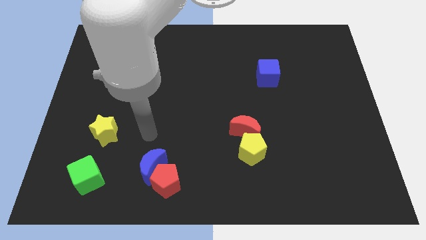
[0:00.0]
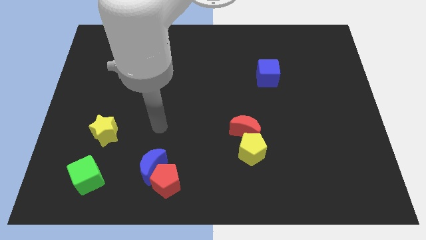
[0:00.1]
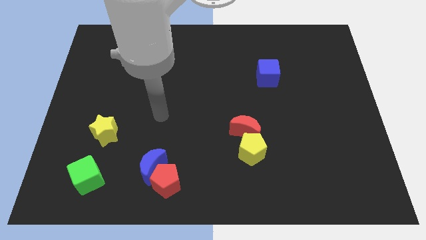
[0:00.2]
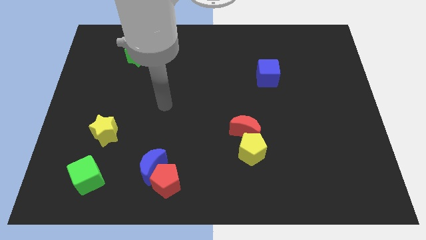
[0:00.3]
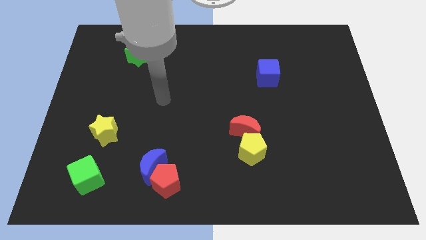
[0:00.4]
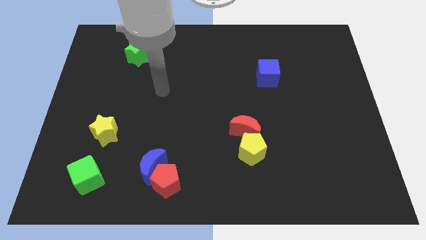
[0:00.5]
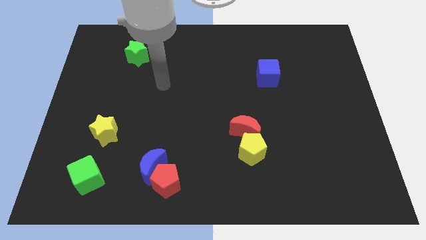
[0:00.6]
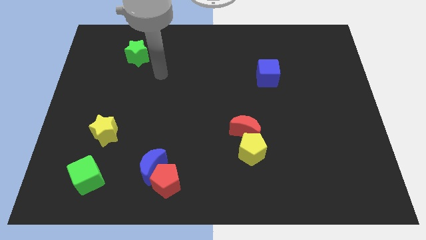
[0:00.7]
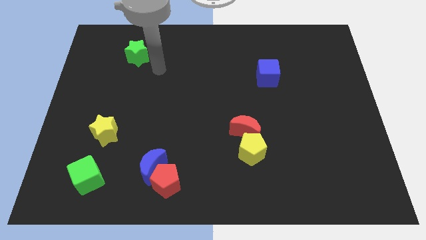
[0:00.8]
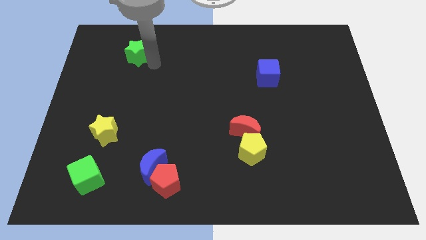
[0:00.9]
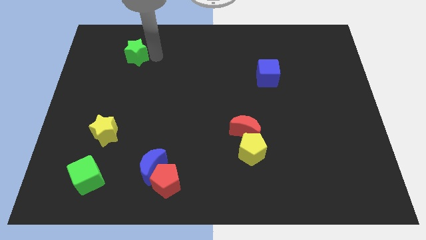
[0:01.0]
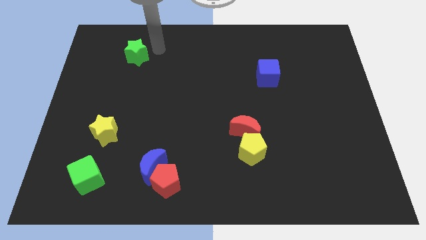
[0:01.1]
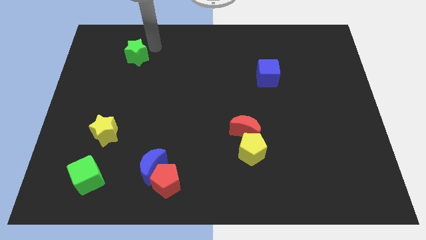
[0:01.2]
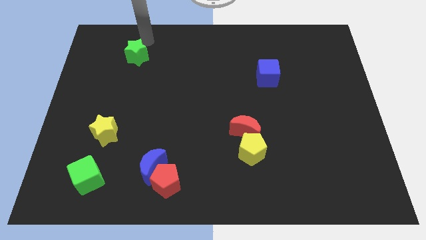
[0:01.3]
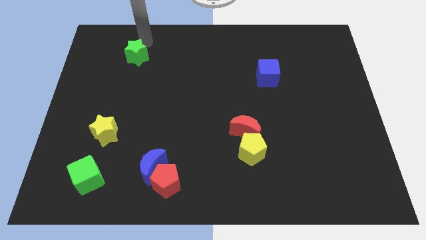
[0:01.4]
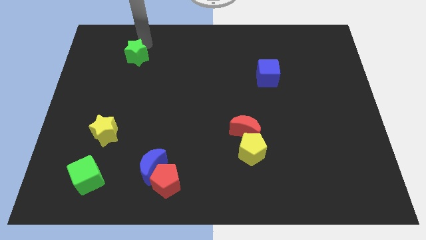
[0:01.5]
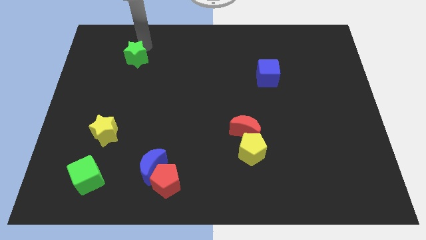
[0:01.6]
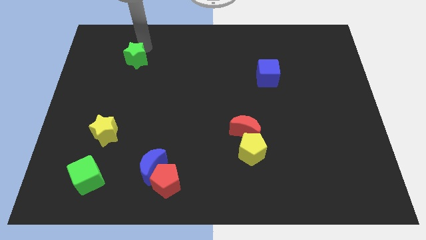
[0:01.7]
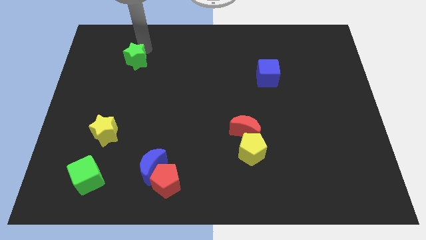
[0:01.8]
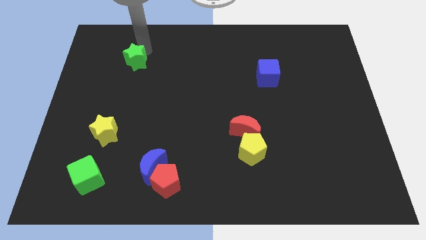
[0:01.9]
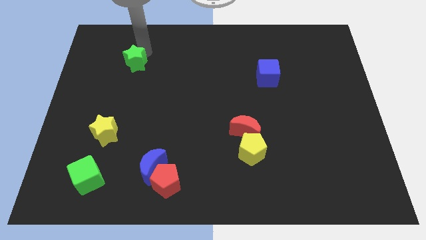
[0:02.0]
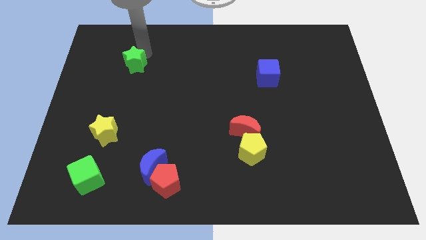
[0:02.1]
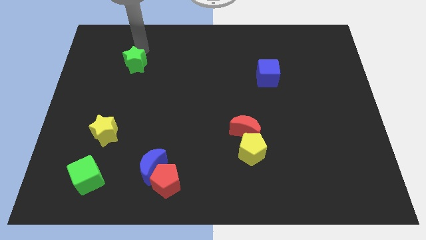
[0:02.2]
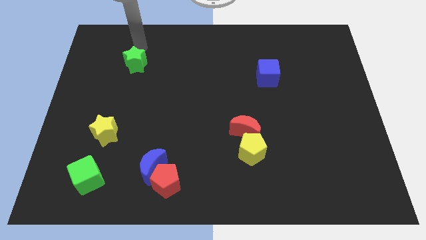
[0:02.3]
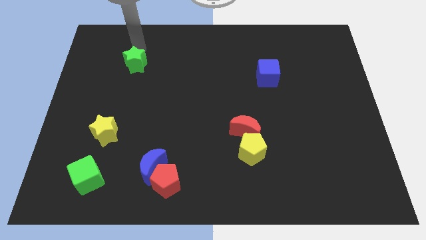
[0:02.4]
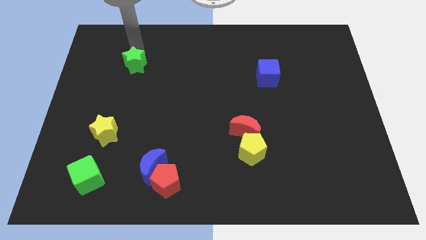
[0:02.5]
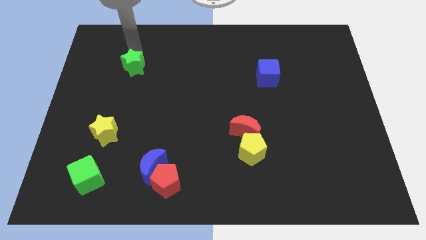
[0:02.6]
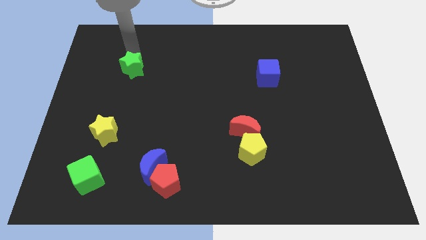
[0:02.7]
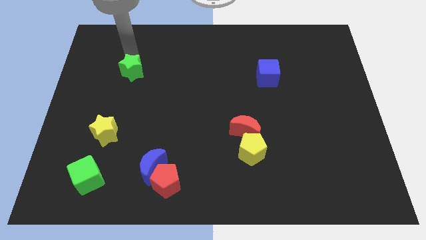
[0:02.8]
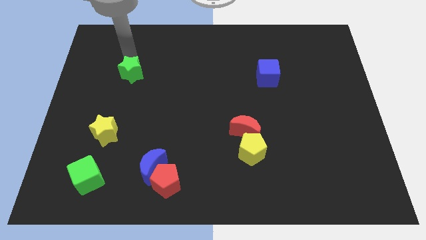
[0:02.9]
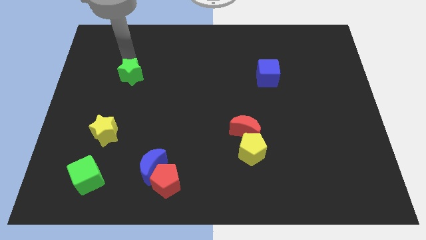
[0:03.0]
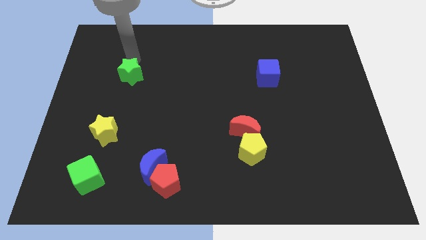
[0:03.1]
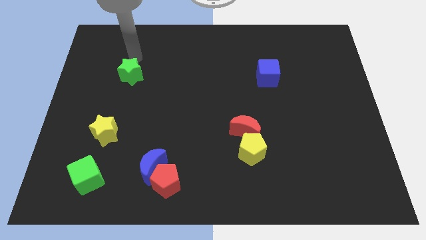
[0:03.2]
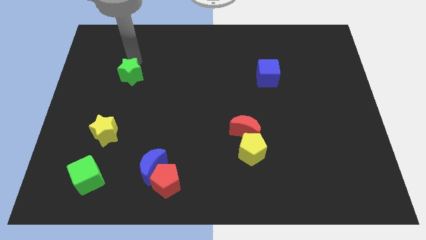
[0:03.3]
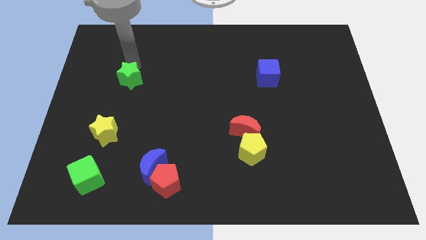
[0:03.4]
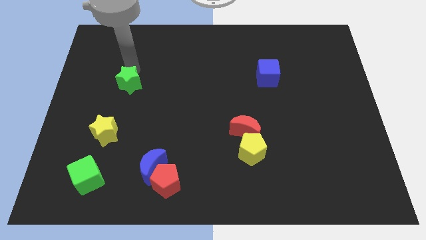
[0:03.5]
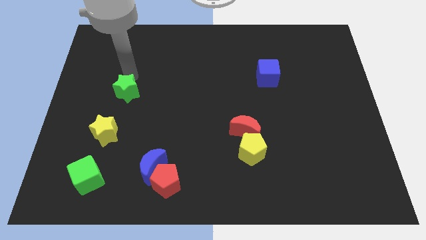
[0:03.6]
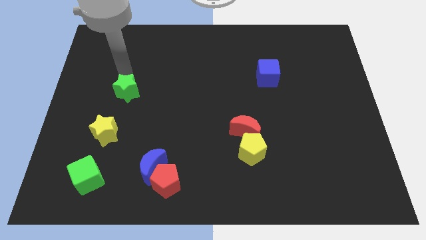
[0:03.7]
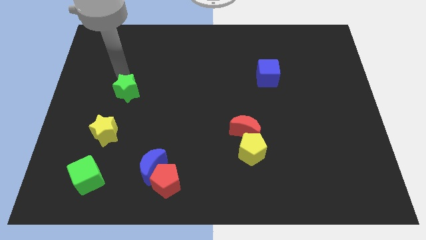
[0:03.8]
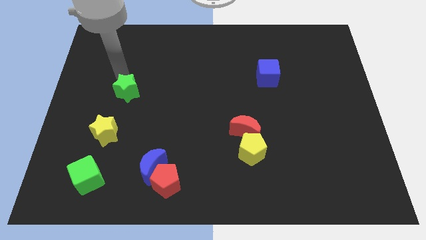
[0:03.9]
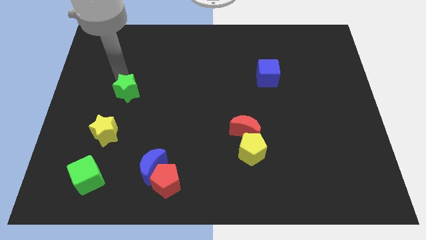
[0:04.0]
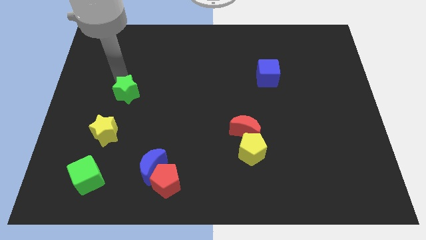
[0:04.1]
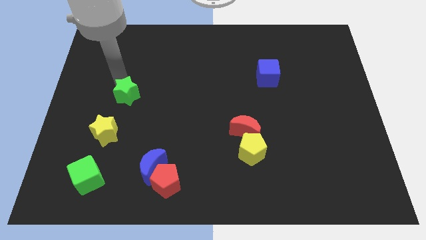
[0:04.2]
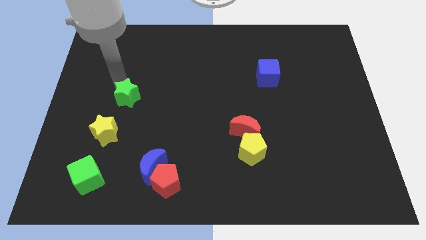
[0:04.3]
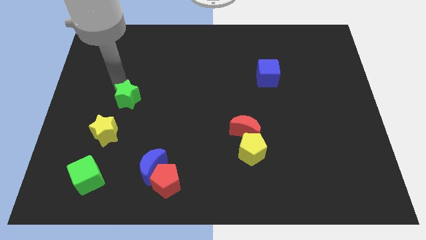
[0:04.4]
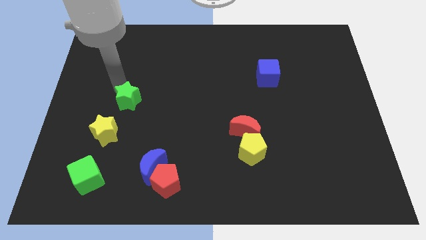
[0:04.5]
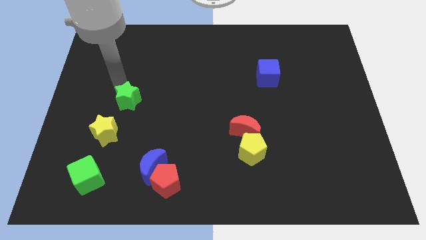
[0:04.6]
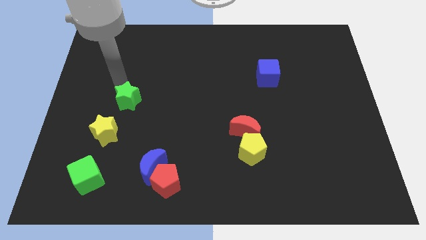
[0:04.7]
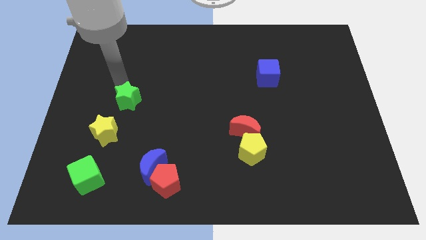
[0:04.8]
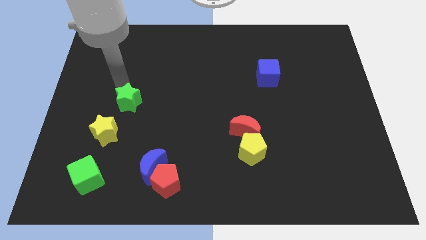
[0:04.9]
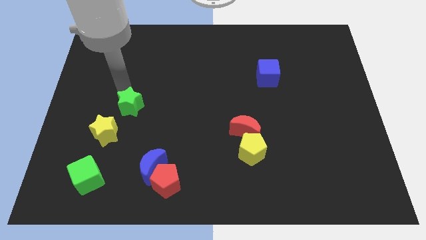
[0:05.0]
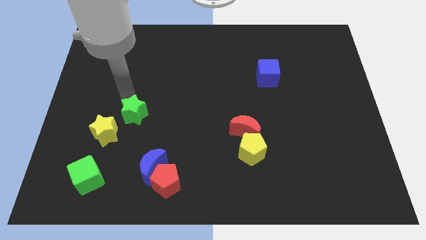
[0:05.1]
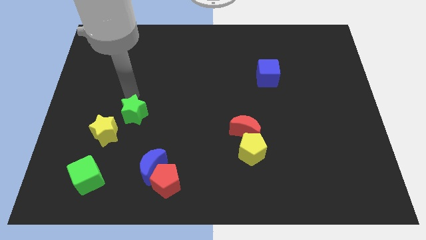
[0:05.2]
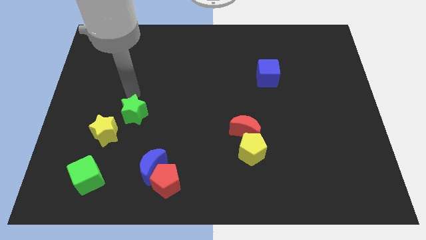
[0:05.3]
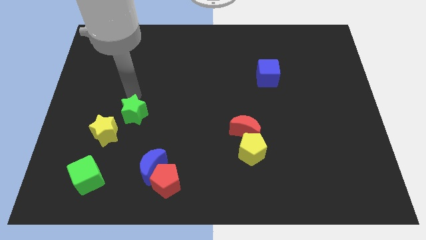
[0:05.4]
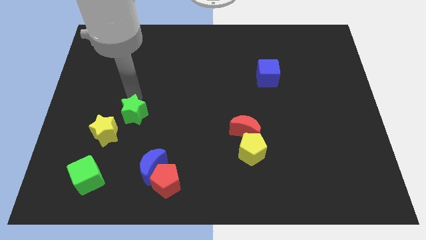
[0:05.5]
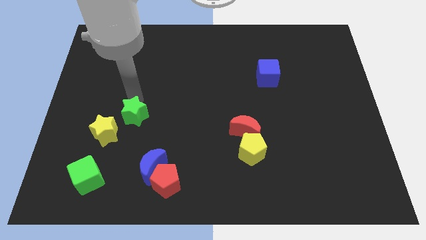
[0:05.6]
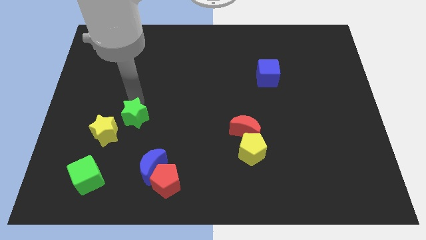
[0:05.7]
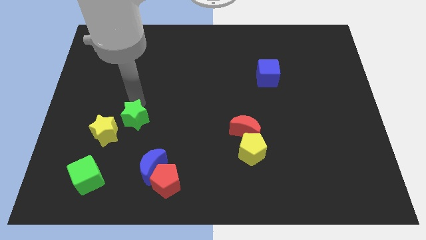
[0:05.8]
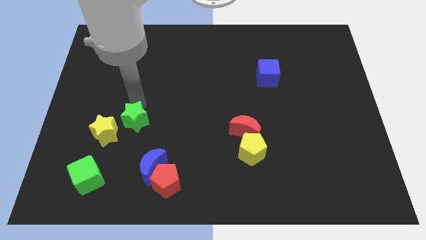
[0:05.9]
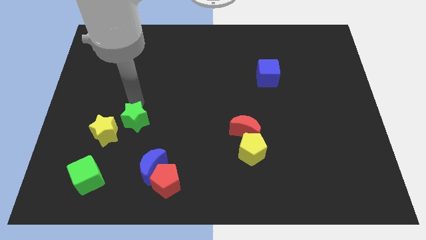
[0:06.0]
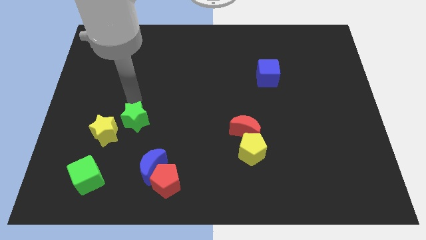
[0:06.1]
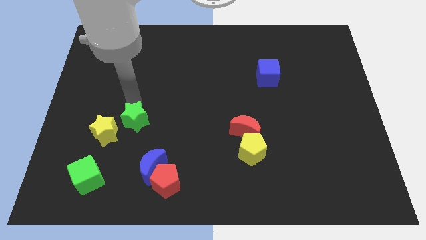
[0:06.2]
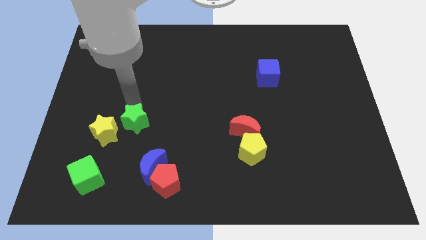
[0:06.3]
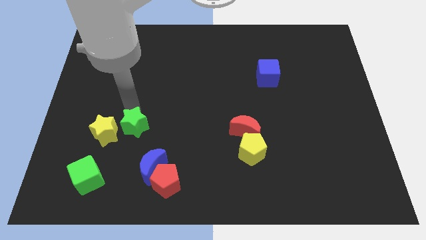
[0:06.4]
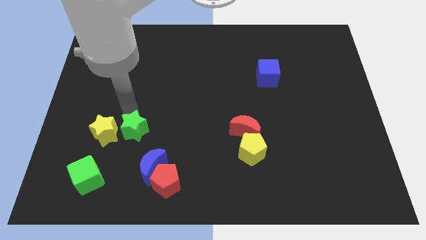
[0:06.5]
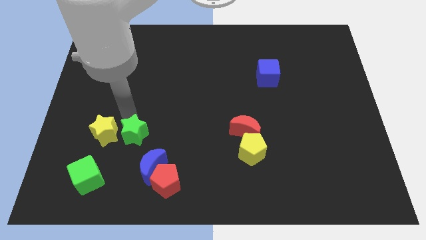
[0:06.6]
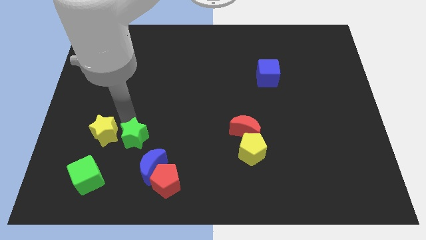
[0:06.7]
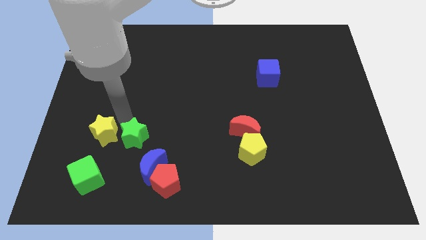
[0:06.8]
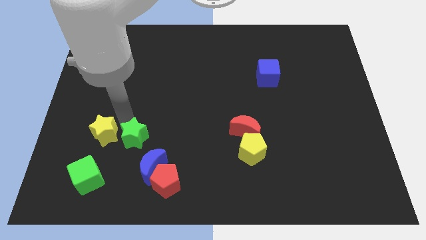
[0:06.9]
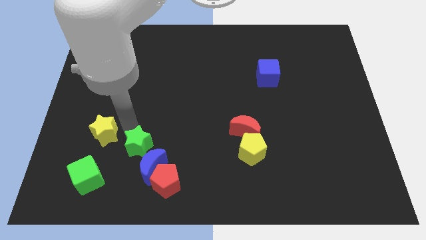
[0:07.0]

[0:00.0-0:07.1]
move the green star to the blue moon
